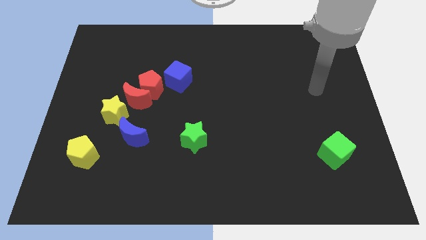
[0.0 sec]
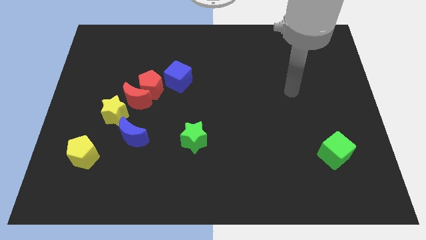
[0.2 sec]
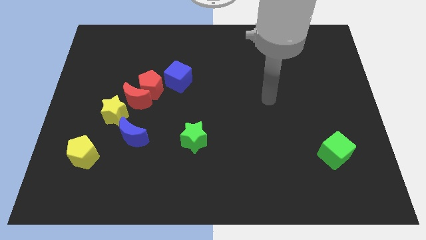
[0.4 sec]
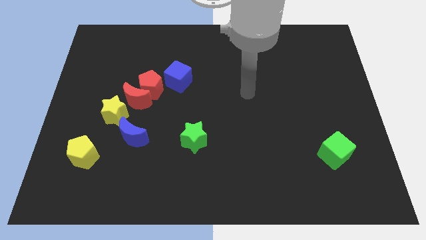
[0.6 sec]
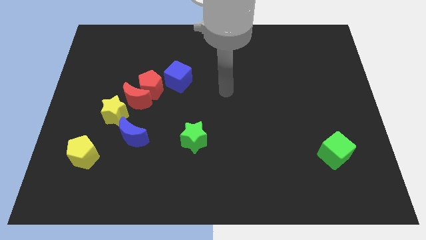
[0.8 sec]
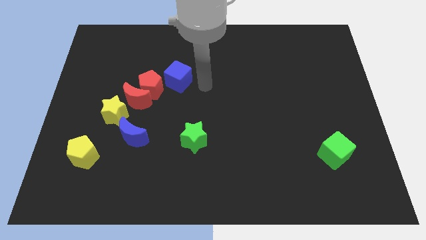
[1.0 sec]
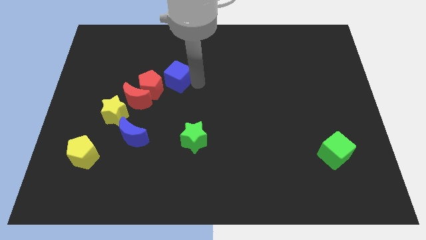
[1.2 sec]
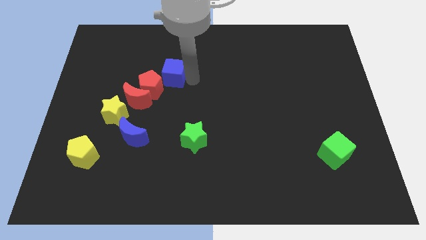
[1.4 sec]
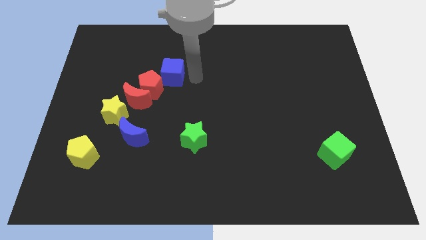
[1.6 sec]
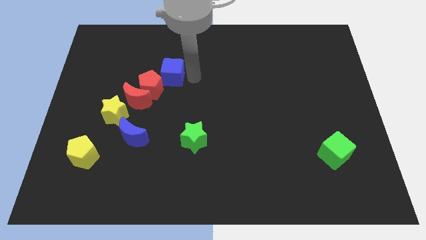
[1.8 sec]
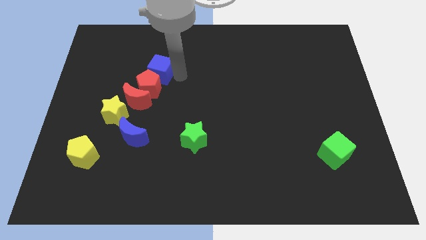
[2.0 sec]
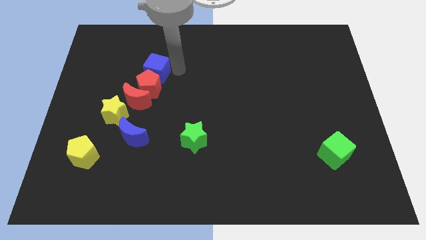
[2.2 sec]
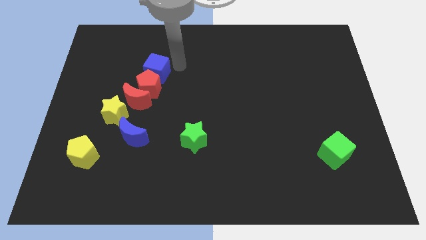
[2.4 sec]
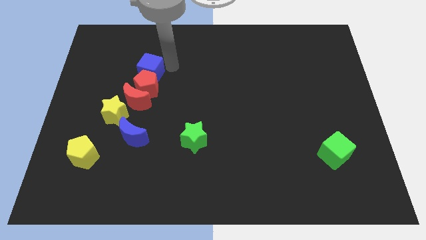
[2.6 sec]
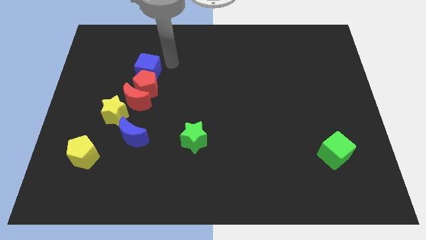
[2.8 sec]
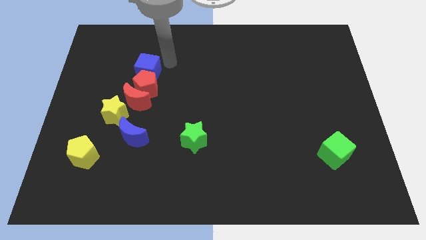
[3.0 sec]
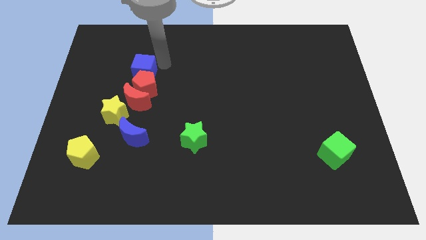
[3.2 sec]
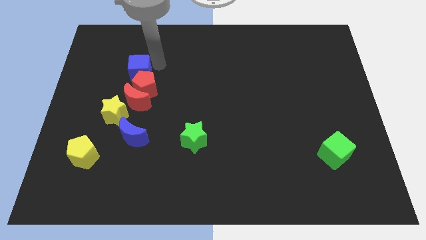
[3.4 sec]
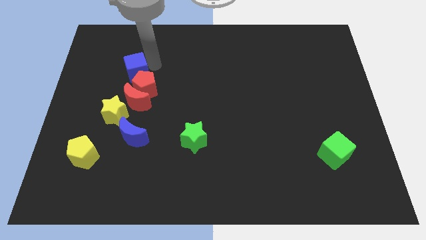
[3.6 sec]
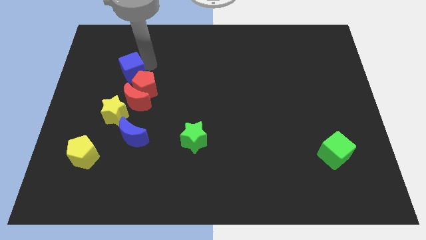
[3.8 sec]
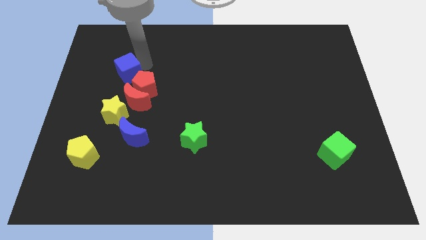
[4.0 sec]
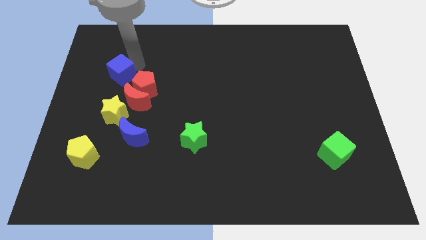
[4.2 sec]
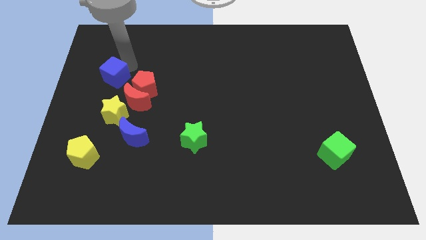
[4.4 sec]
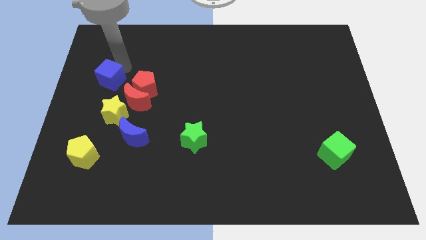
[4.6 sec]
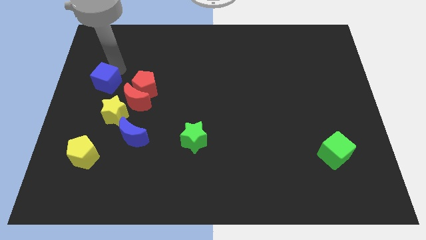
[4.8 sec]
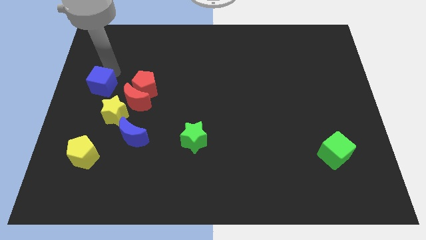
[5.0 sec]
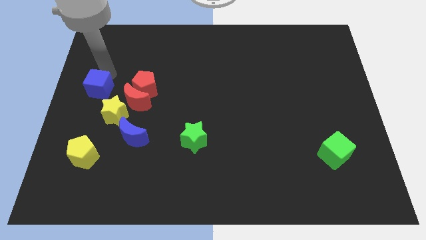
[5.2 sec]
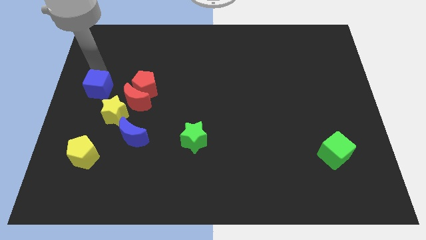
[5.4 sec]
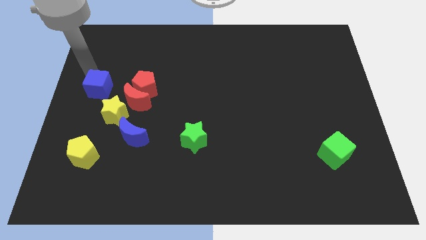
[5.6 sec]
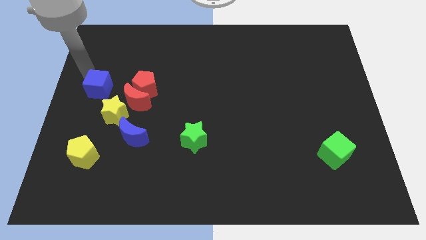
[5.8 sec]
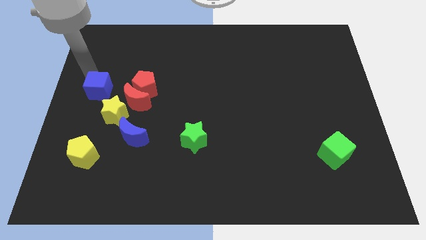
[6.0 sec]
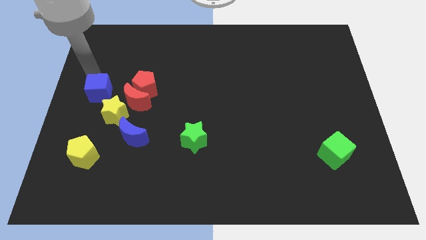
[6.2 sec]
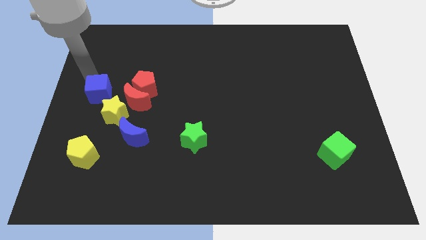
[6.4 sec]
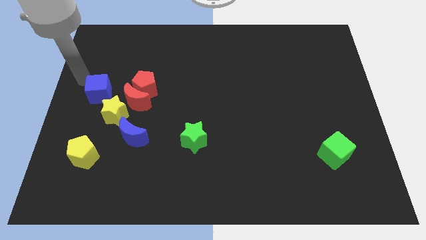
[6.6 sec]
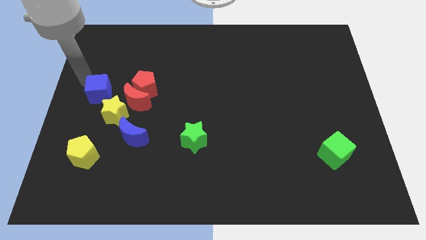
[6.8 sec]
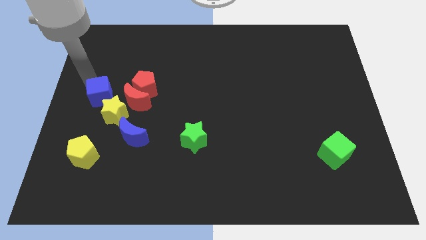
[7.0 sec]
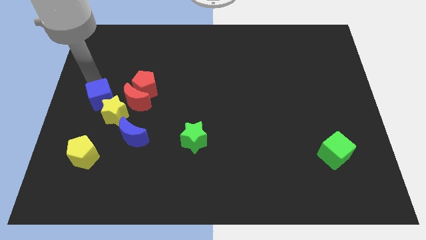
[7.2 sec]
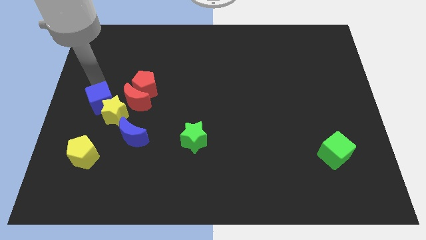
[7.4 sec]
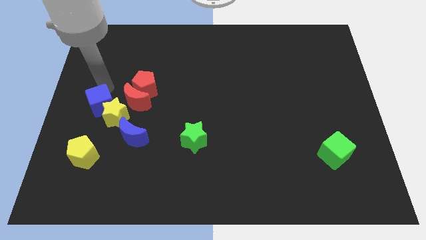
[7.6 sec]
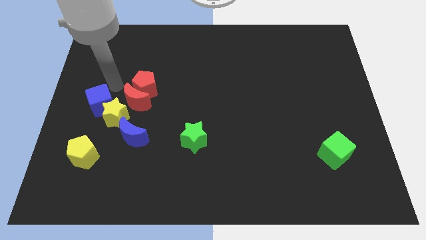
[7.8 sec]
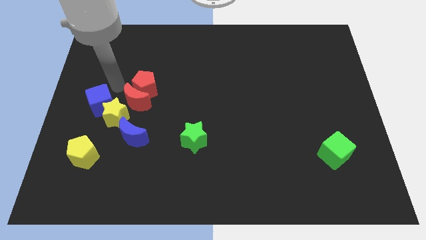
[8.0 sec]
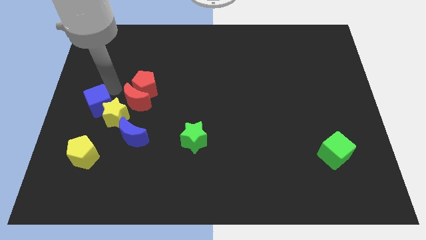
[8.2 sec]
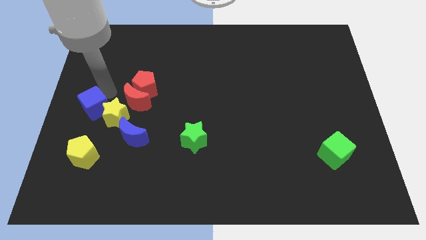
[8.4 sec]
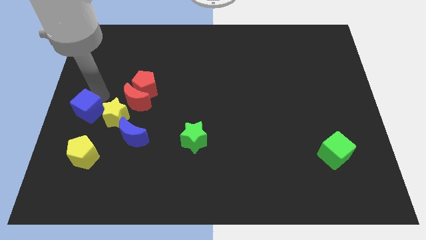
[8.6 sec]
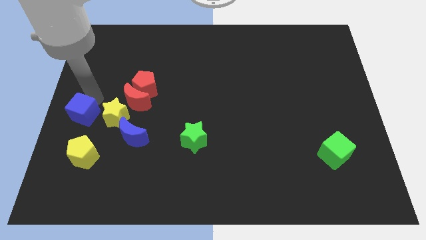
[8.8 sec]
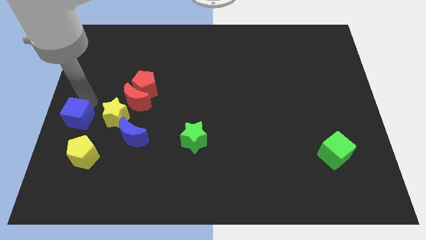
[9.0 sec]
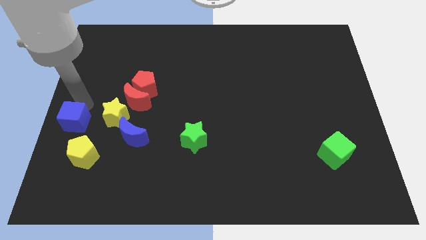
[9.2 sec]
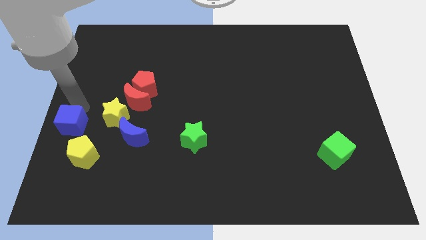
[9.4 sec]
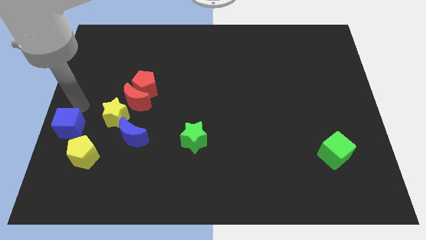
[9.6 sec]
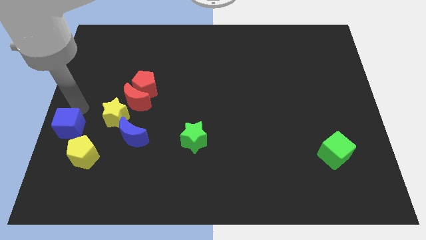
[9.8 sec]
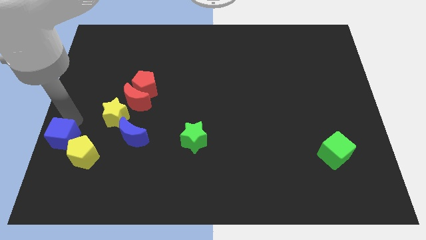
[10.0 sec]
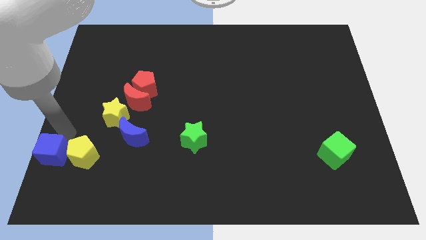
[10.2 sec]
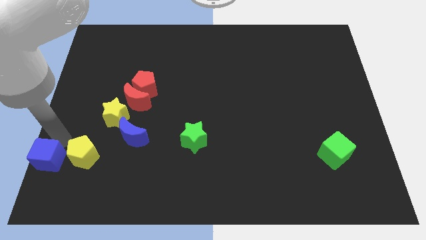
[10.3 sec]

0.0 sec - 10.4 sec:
slide the blue cube to the lower left corner

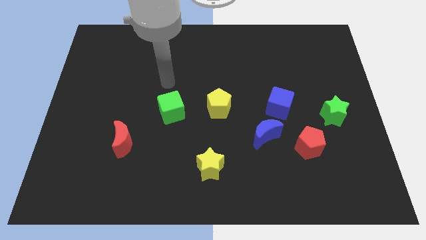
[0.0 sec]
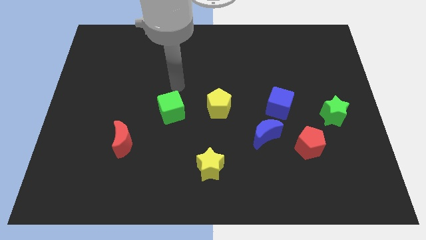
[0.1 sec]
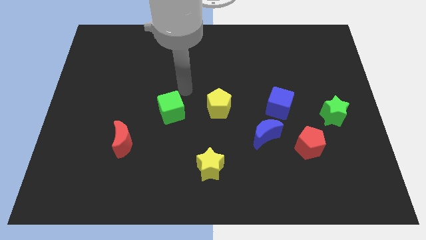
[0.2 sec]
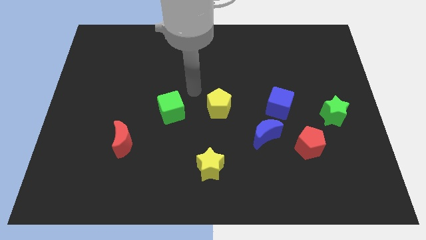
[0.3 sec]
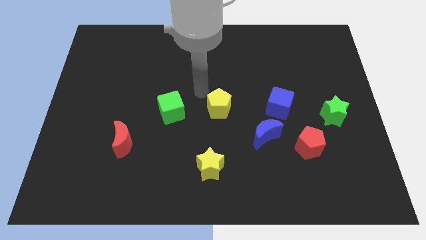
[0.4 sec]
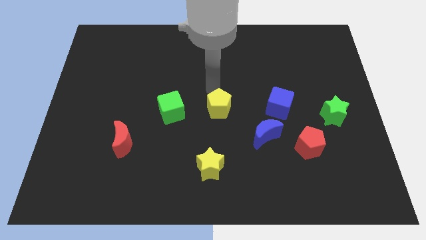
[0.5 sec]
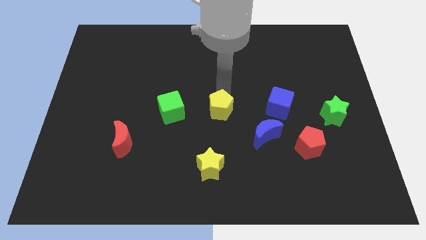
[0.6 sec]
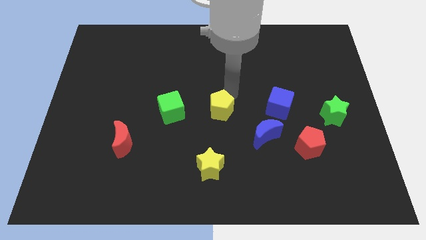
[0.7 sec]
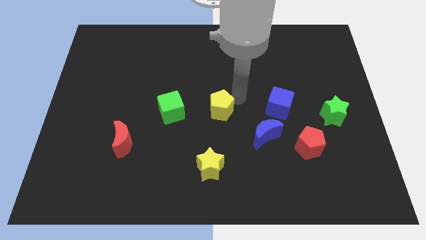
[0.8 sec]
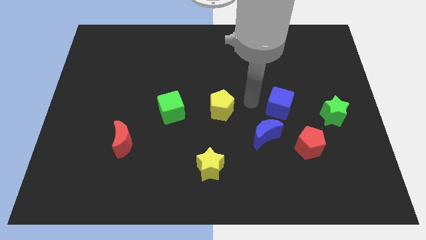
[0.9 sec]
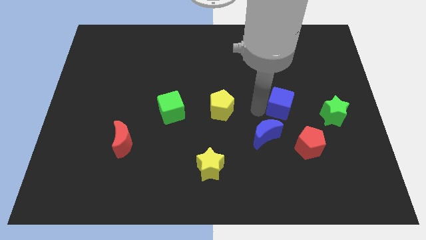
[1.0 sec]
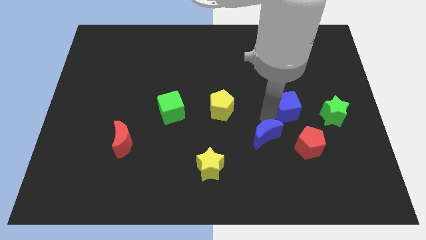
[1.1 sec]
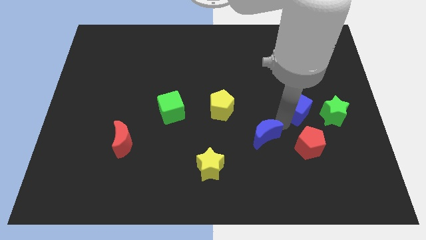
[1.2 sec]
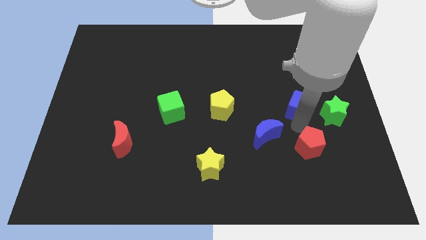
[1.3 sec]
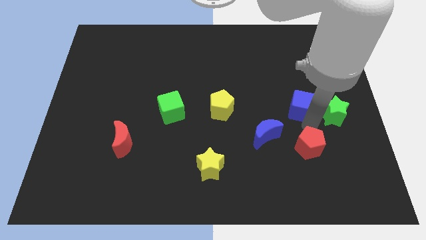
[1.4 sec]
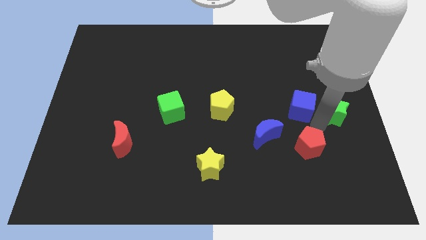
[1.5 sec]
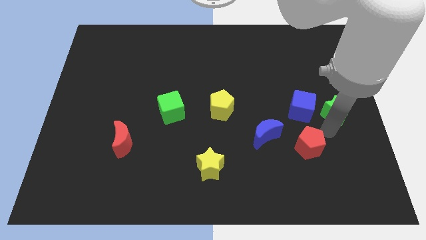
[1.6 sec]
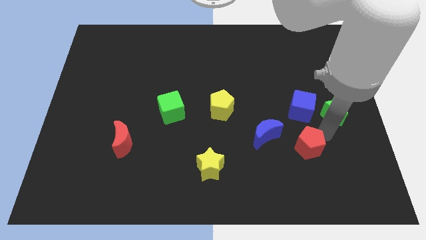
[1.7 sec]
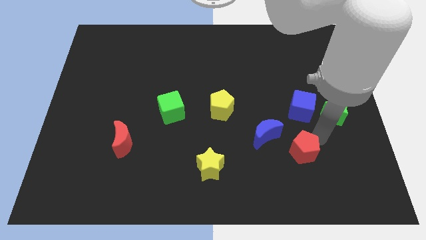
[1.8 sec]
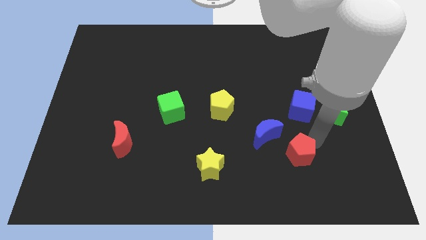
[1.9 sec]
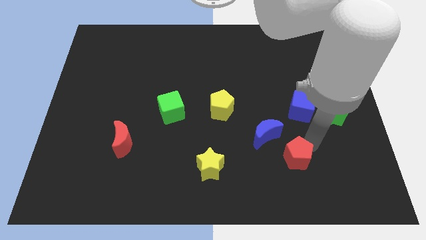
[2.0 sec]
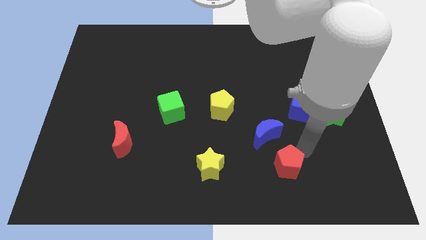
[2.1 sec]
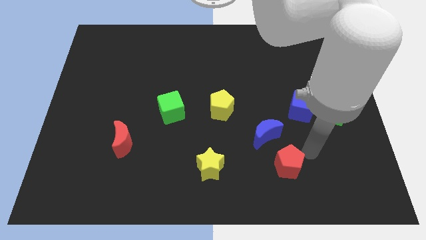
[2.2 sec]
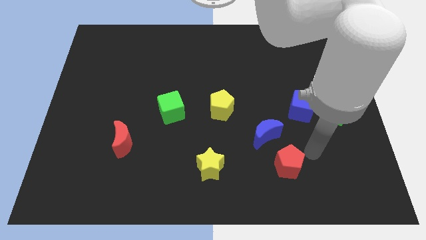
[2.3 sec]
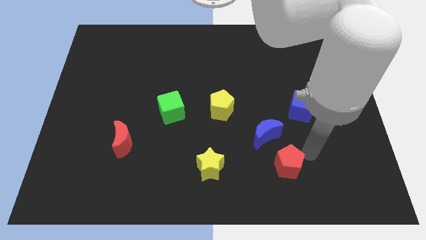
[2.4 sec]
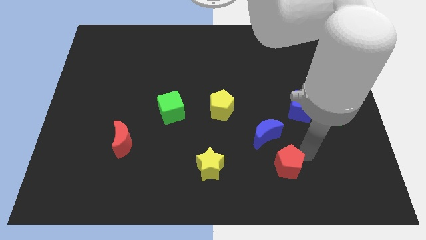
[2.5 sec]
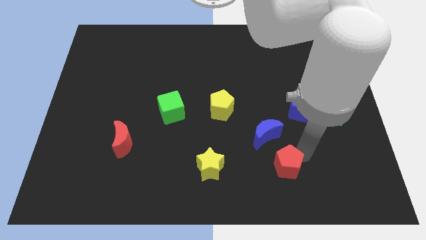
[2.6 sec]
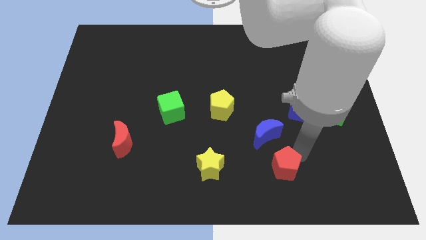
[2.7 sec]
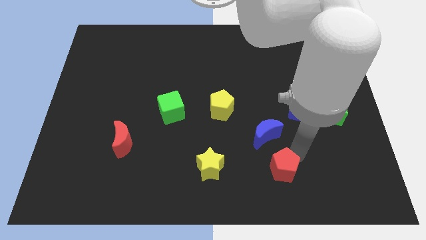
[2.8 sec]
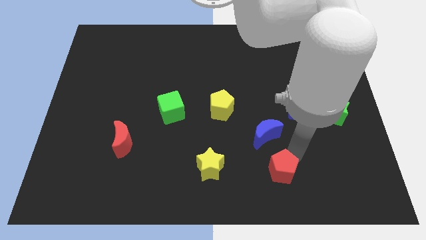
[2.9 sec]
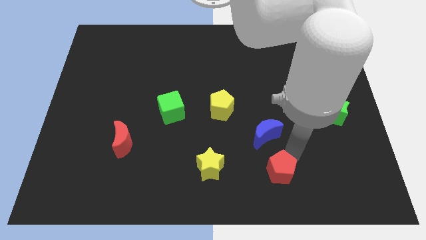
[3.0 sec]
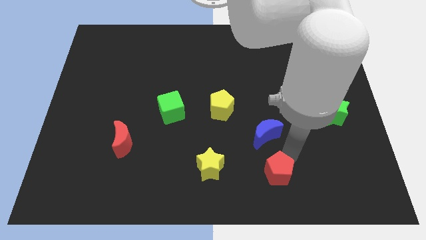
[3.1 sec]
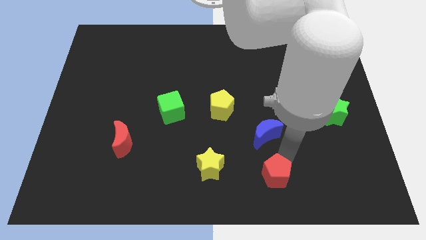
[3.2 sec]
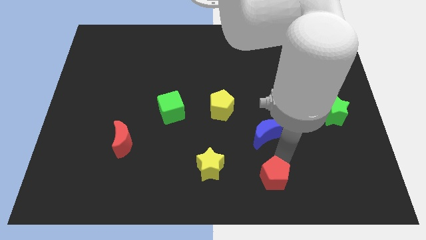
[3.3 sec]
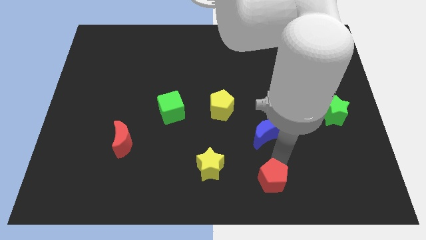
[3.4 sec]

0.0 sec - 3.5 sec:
slide the red pentagon to the bottom
